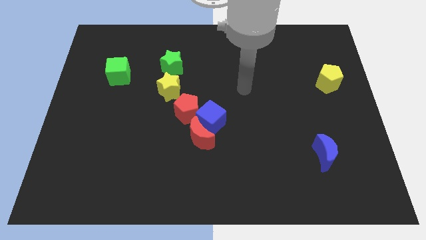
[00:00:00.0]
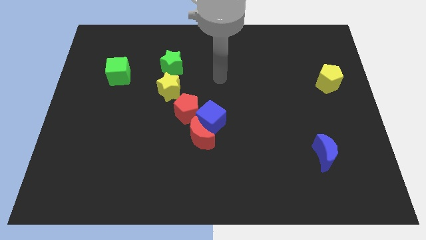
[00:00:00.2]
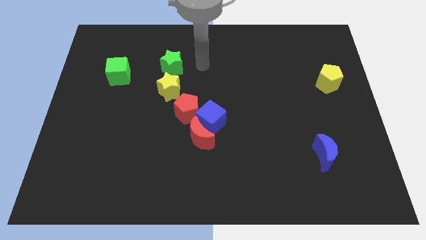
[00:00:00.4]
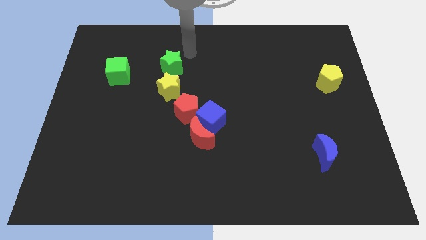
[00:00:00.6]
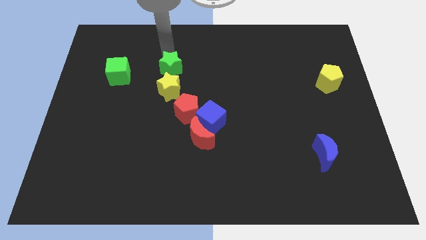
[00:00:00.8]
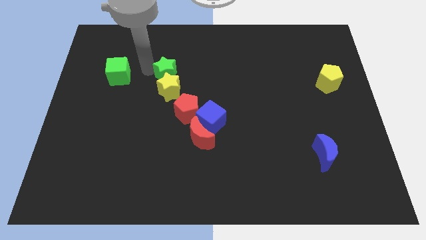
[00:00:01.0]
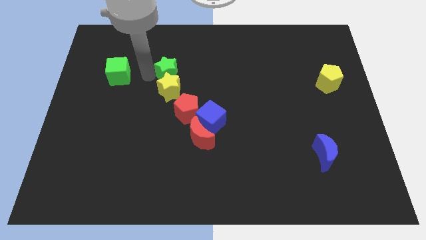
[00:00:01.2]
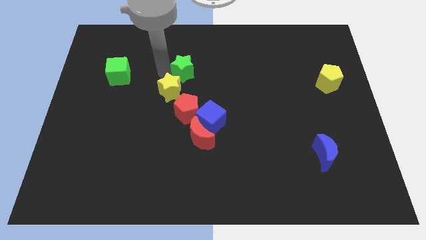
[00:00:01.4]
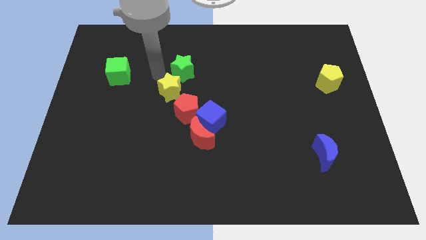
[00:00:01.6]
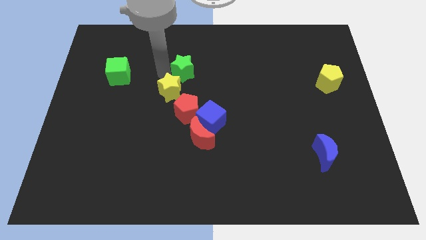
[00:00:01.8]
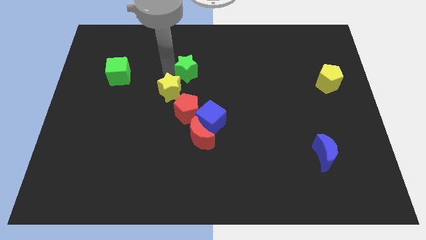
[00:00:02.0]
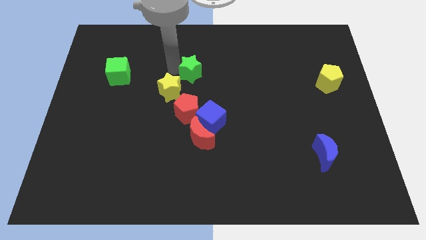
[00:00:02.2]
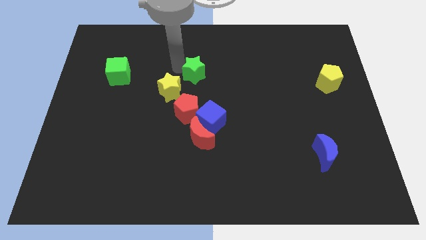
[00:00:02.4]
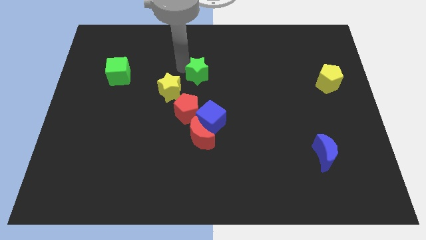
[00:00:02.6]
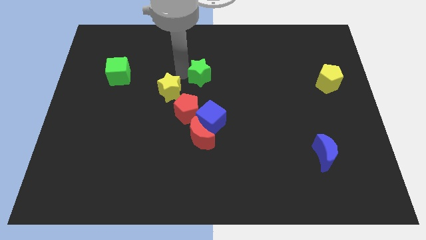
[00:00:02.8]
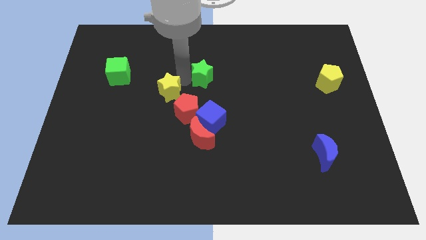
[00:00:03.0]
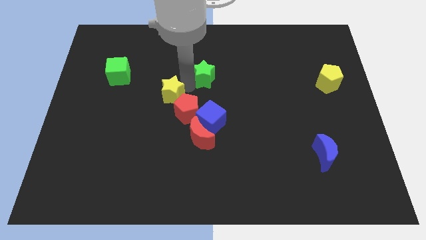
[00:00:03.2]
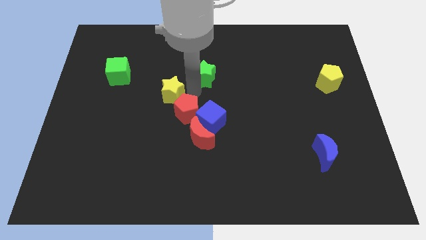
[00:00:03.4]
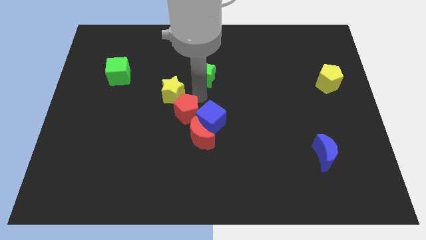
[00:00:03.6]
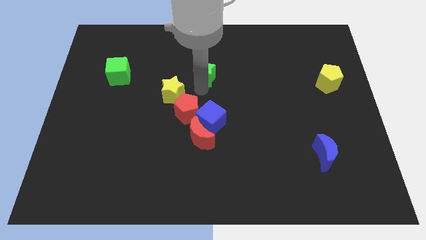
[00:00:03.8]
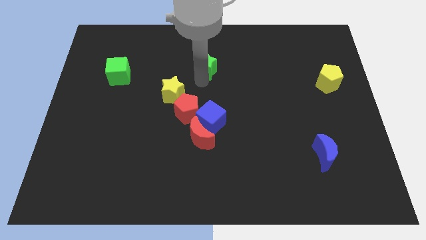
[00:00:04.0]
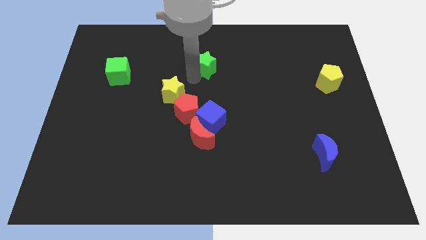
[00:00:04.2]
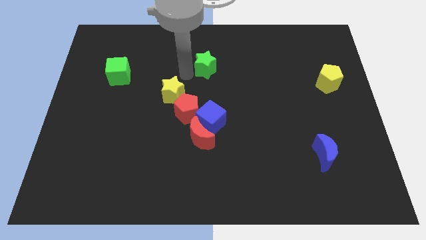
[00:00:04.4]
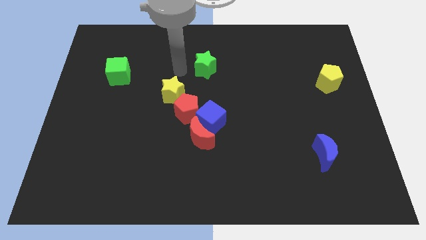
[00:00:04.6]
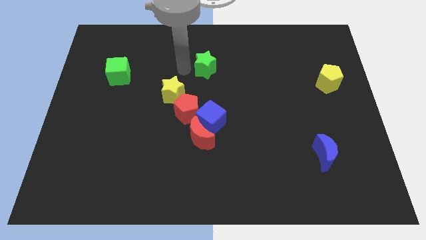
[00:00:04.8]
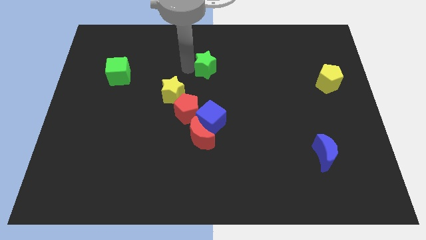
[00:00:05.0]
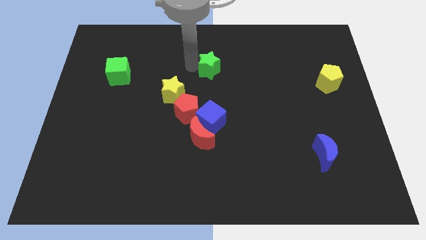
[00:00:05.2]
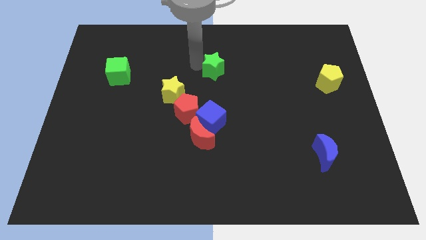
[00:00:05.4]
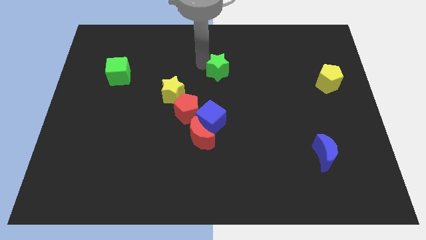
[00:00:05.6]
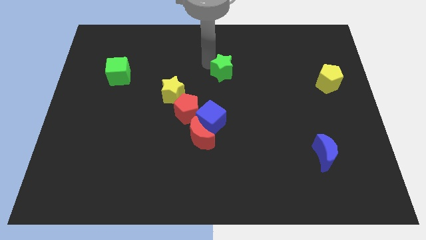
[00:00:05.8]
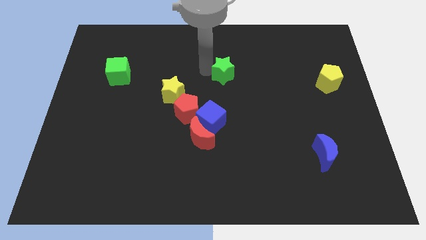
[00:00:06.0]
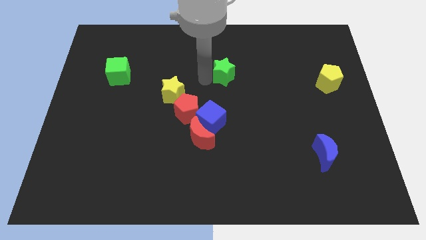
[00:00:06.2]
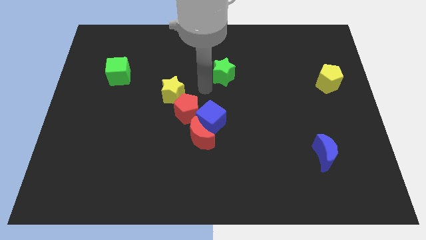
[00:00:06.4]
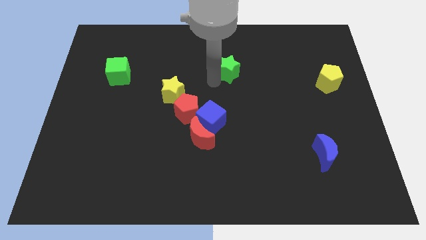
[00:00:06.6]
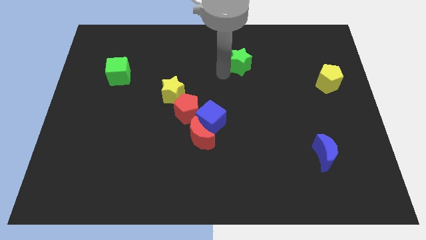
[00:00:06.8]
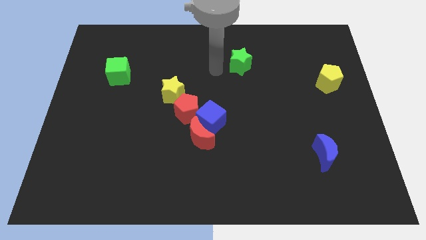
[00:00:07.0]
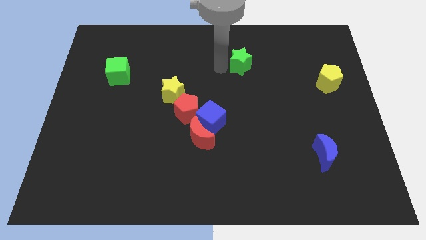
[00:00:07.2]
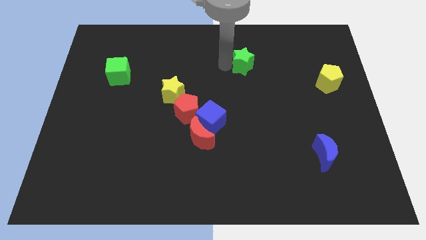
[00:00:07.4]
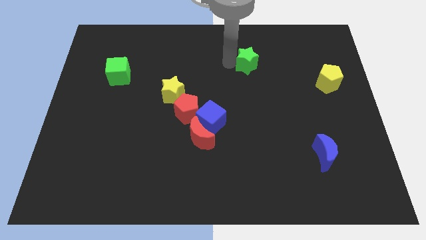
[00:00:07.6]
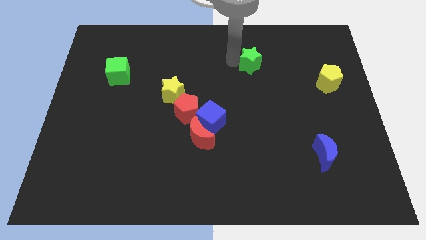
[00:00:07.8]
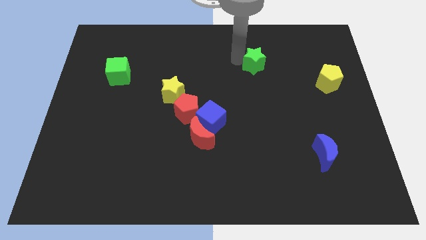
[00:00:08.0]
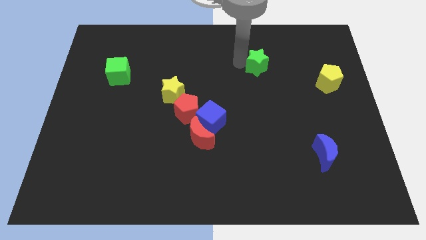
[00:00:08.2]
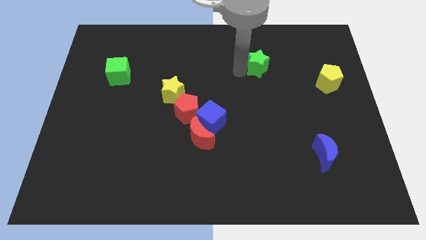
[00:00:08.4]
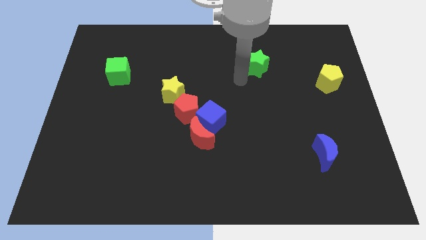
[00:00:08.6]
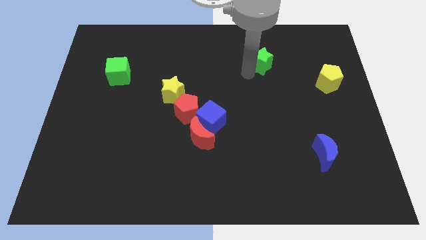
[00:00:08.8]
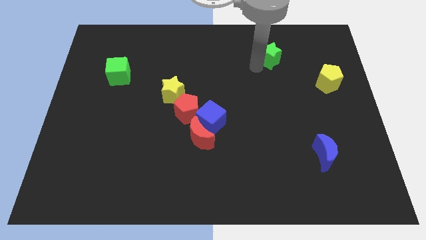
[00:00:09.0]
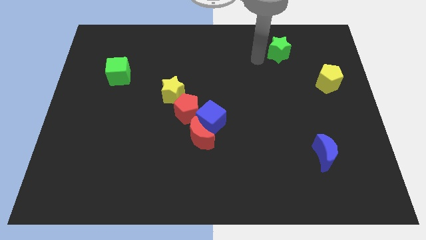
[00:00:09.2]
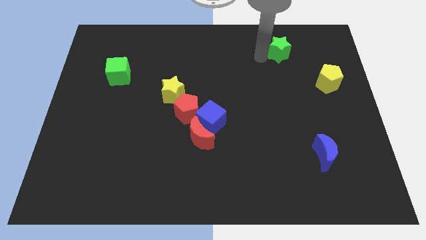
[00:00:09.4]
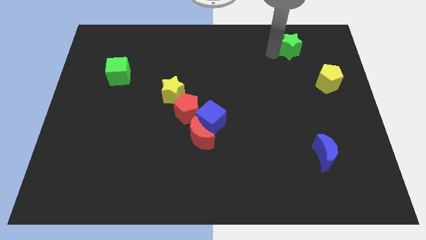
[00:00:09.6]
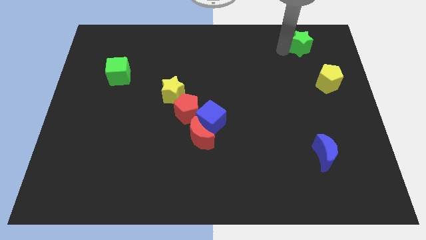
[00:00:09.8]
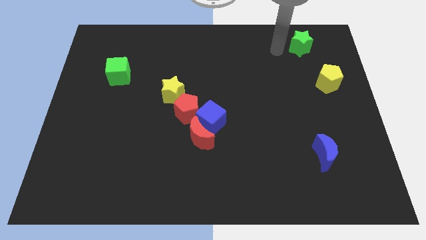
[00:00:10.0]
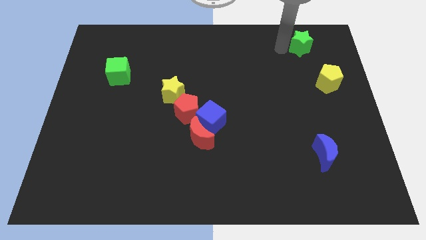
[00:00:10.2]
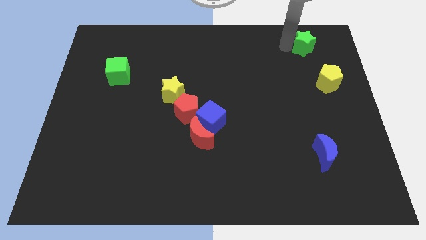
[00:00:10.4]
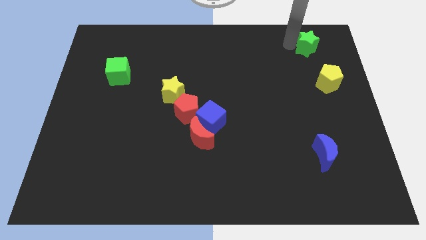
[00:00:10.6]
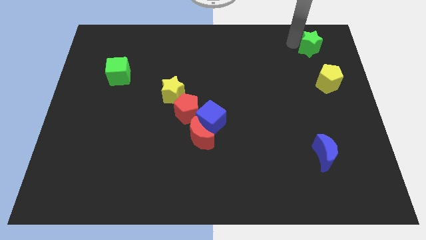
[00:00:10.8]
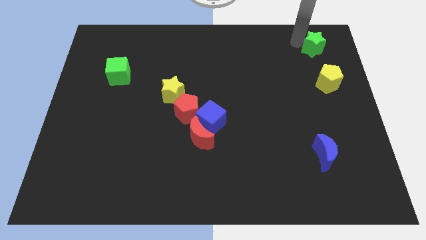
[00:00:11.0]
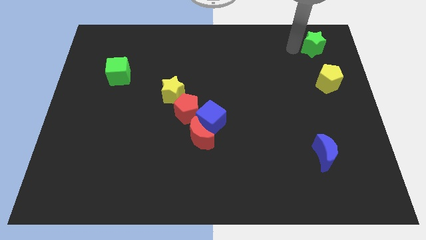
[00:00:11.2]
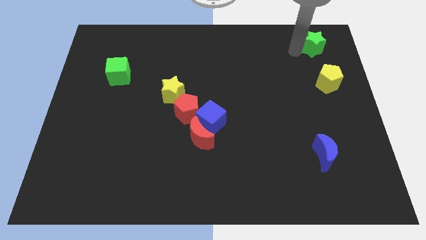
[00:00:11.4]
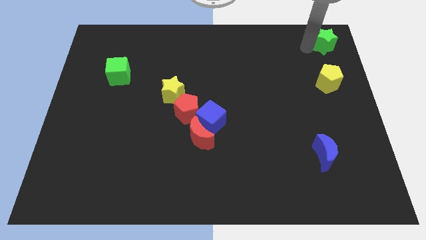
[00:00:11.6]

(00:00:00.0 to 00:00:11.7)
push the green star to the top right corner
